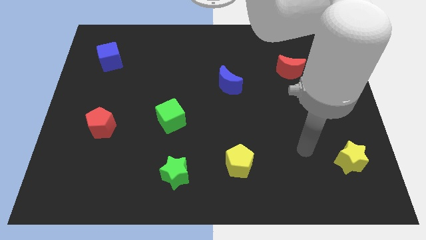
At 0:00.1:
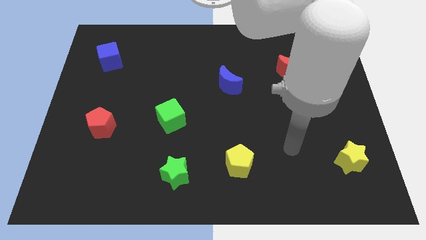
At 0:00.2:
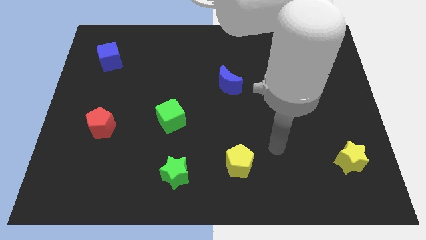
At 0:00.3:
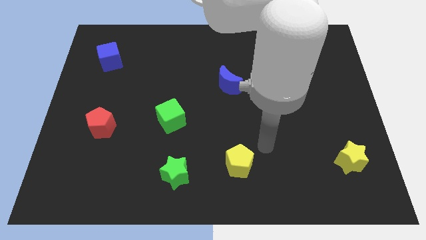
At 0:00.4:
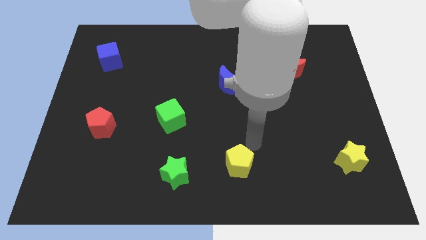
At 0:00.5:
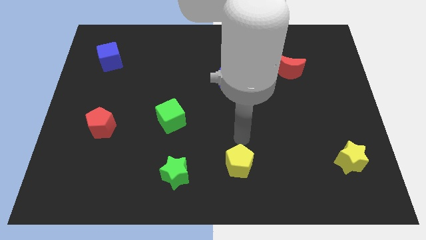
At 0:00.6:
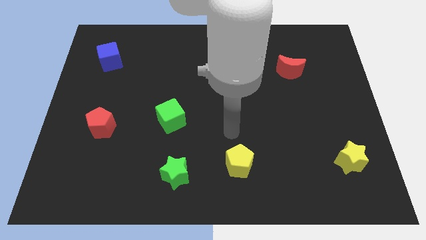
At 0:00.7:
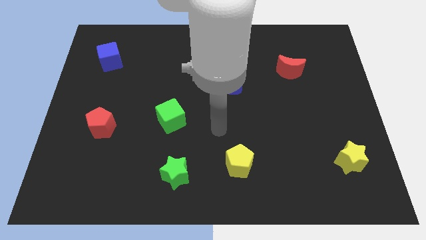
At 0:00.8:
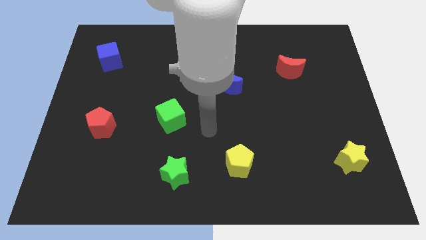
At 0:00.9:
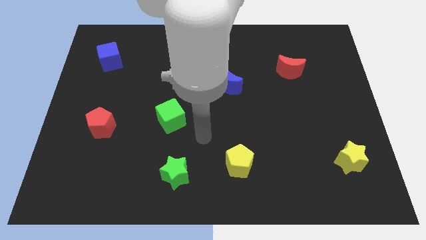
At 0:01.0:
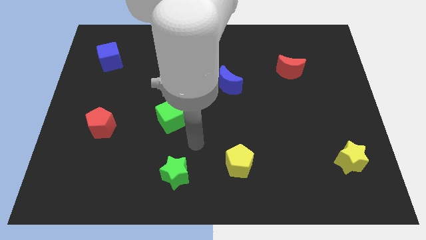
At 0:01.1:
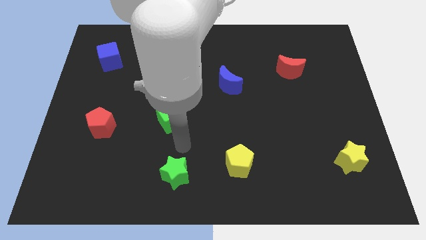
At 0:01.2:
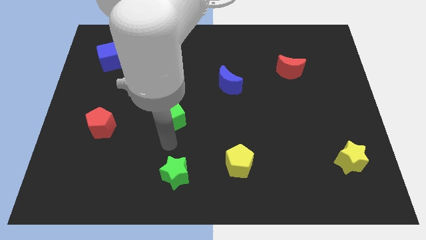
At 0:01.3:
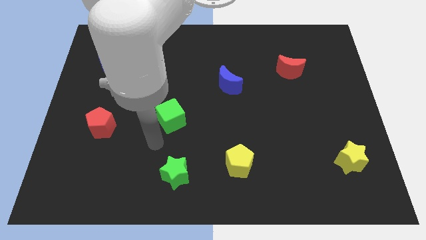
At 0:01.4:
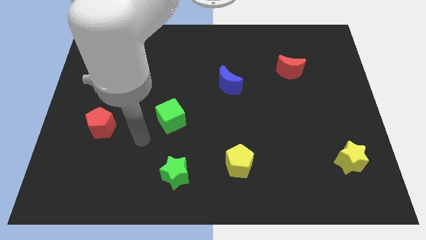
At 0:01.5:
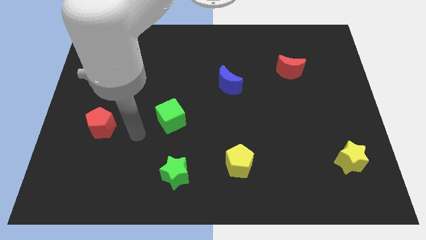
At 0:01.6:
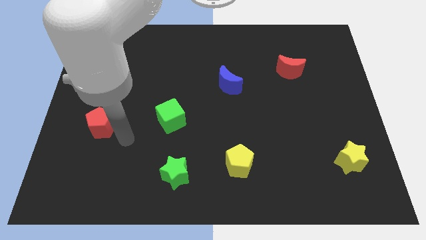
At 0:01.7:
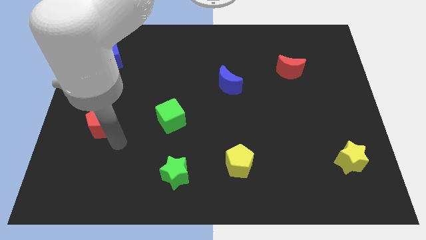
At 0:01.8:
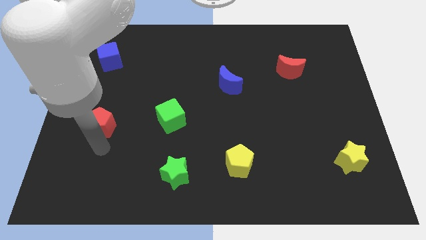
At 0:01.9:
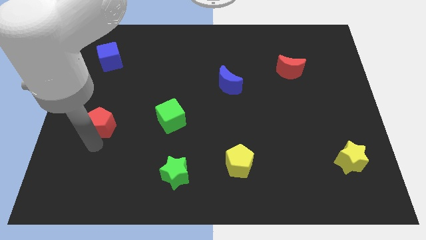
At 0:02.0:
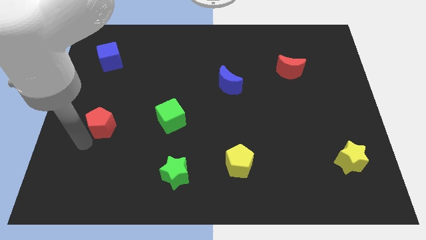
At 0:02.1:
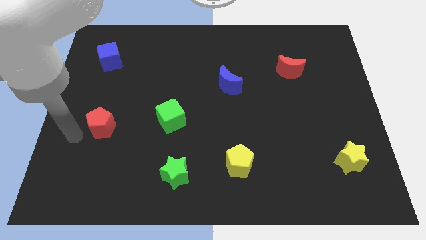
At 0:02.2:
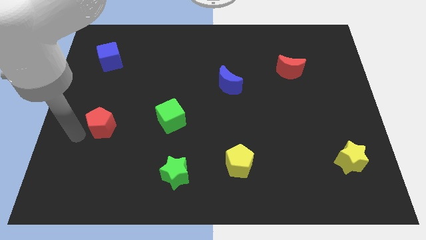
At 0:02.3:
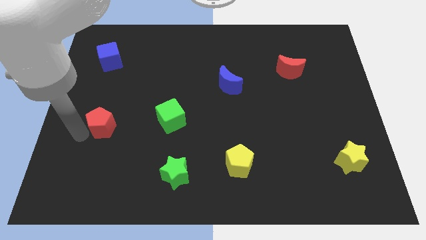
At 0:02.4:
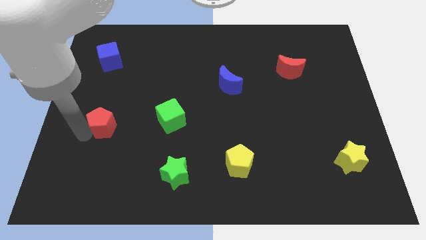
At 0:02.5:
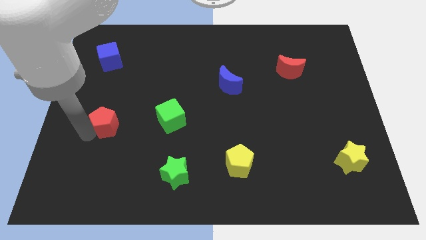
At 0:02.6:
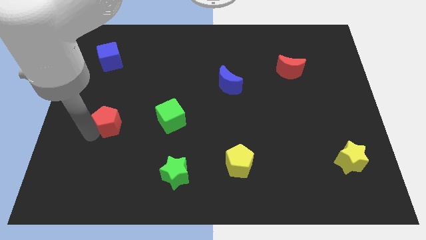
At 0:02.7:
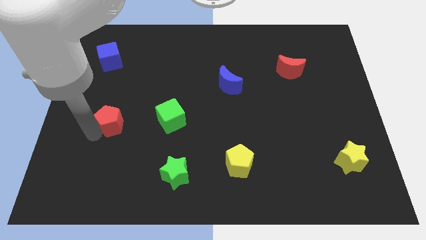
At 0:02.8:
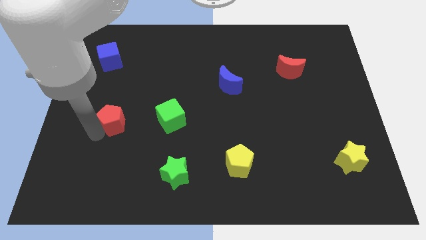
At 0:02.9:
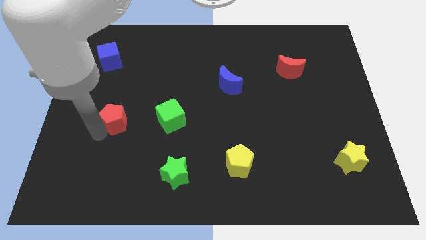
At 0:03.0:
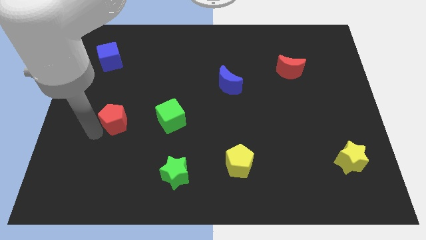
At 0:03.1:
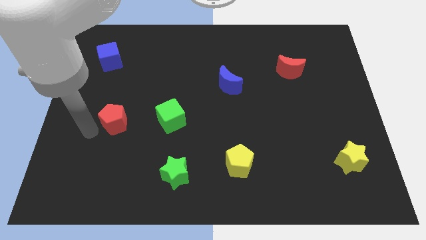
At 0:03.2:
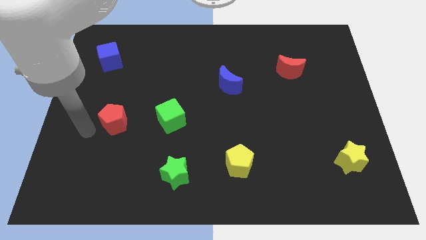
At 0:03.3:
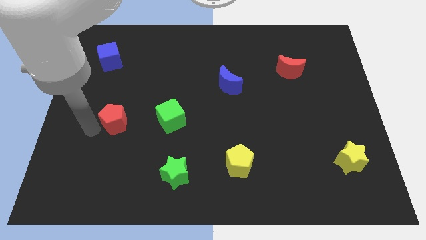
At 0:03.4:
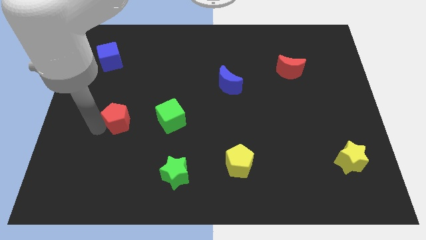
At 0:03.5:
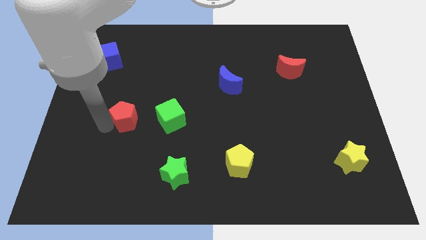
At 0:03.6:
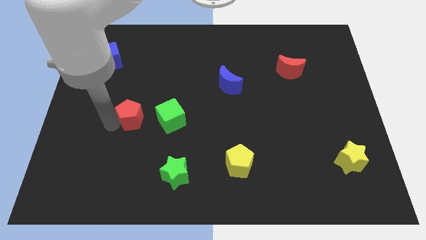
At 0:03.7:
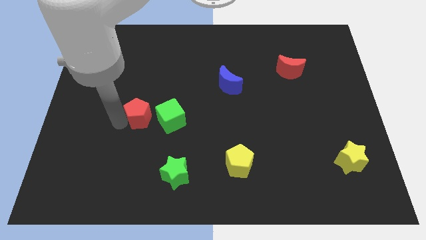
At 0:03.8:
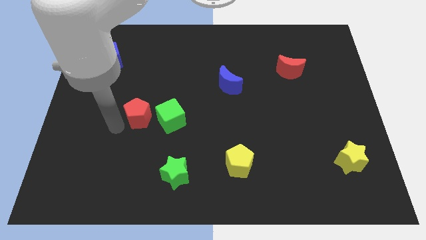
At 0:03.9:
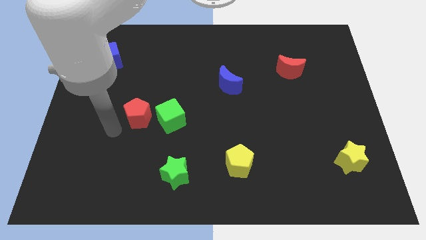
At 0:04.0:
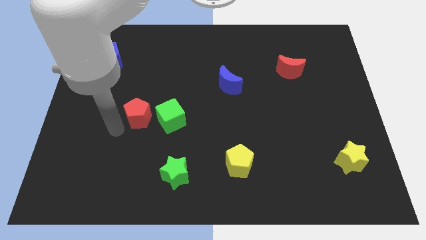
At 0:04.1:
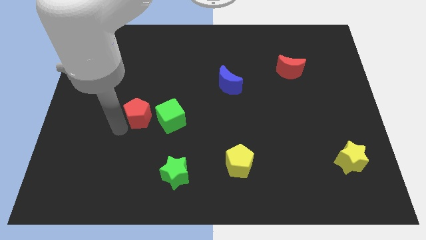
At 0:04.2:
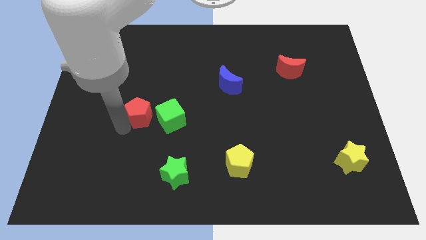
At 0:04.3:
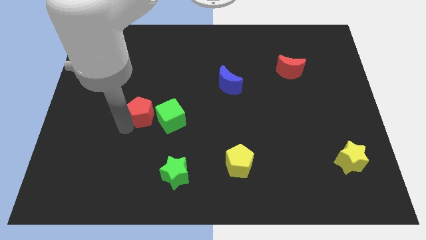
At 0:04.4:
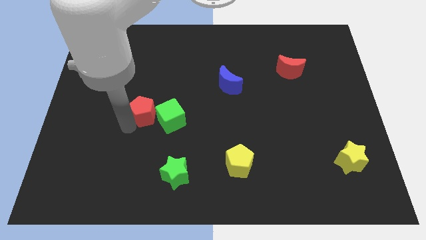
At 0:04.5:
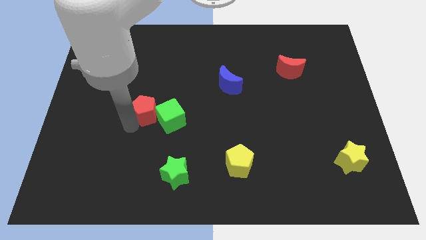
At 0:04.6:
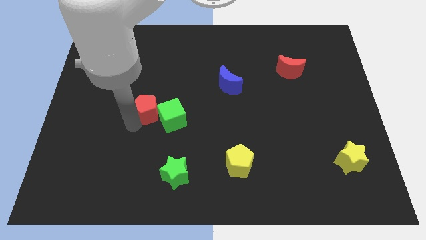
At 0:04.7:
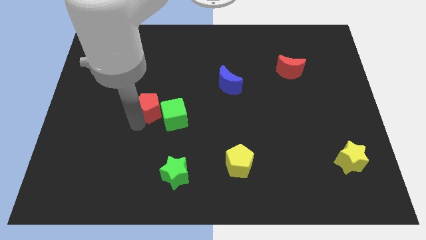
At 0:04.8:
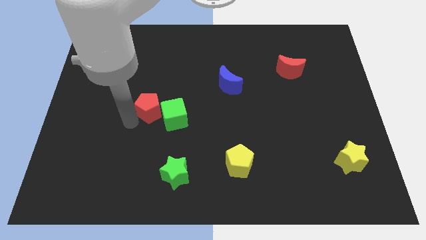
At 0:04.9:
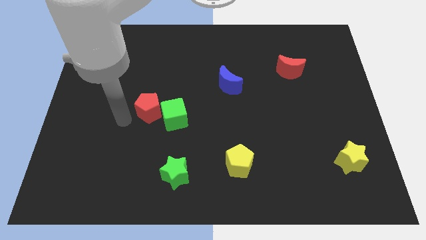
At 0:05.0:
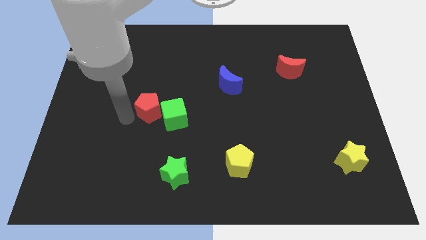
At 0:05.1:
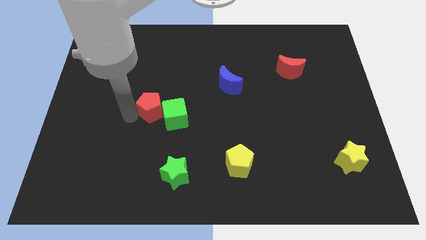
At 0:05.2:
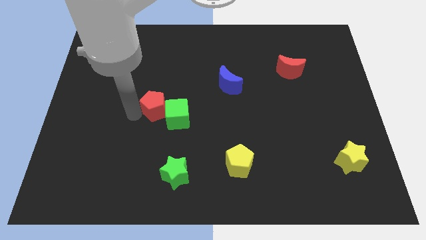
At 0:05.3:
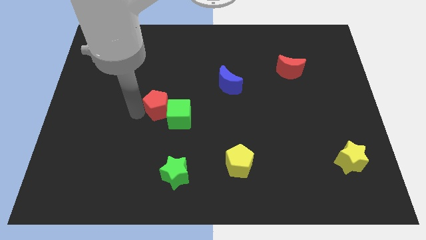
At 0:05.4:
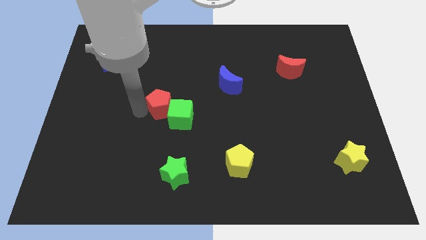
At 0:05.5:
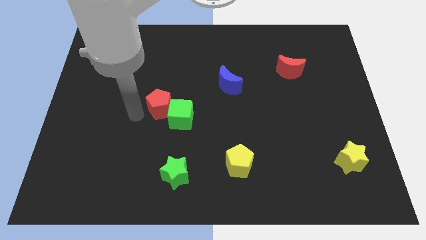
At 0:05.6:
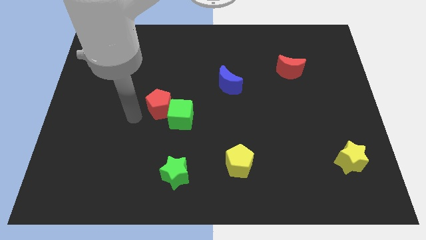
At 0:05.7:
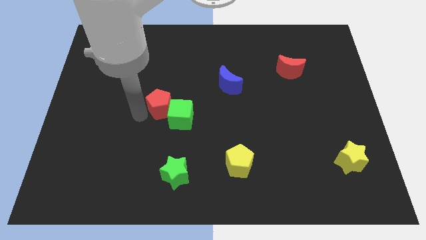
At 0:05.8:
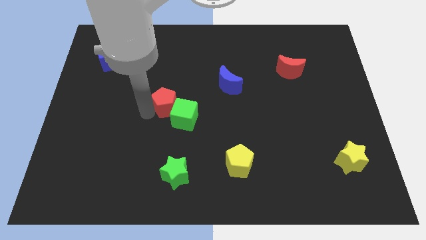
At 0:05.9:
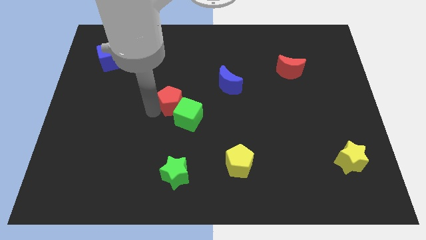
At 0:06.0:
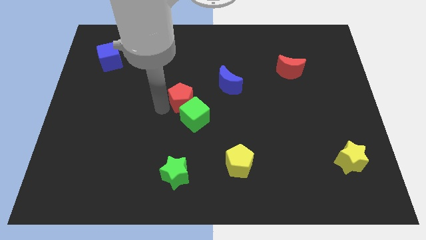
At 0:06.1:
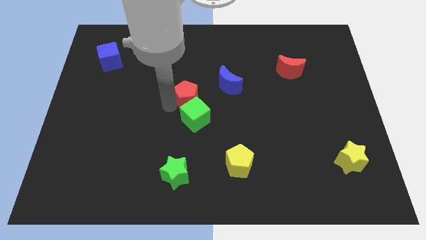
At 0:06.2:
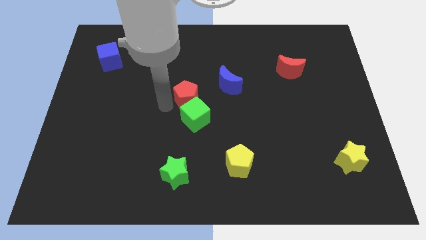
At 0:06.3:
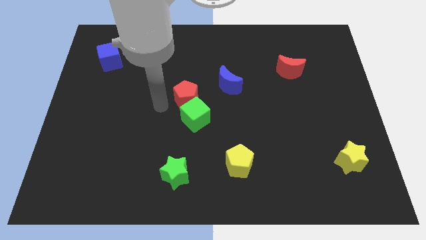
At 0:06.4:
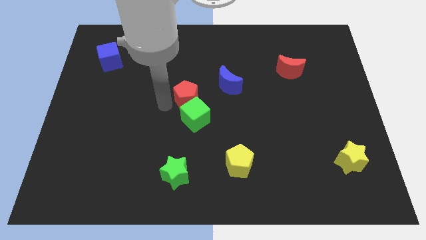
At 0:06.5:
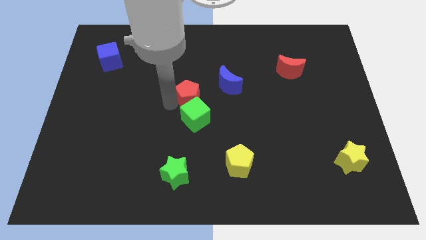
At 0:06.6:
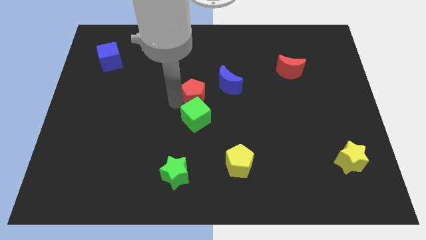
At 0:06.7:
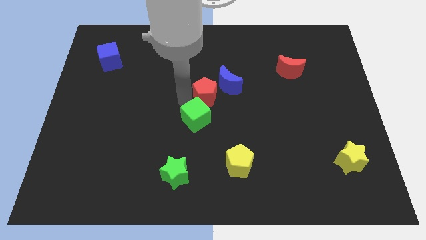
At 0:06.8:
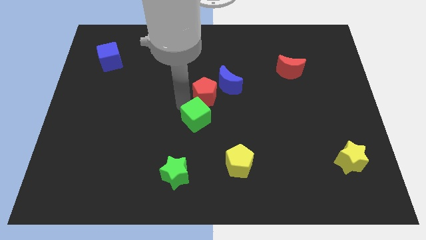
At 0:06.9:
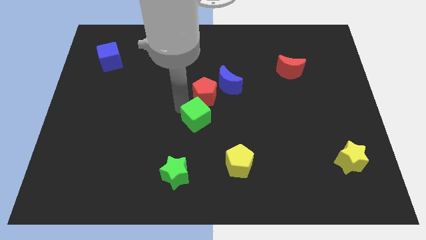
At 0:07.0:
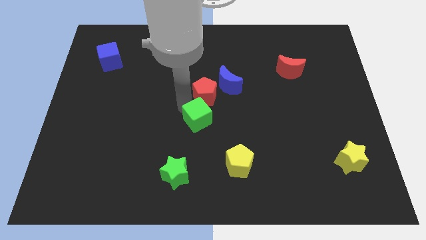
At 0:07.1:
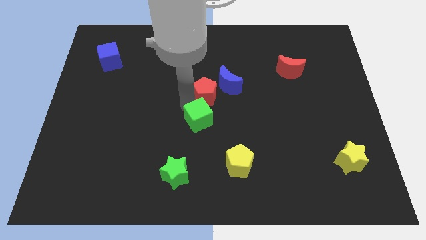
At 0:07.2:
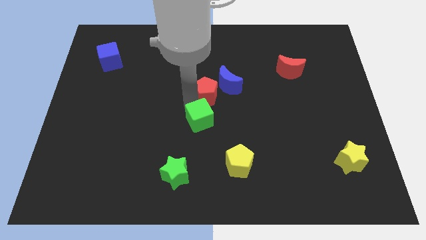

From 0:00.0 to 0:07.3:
slide the red pentagon to the blue moon
